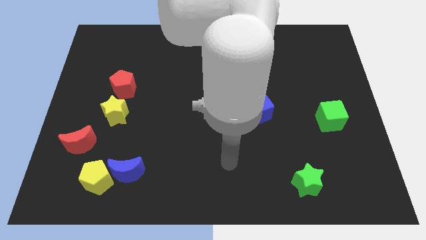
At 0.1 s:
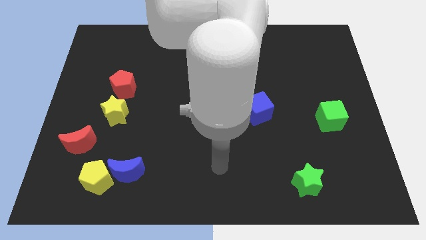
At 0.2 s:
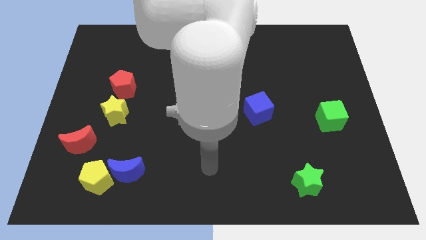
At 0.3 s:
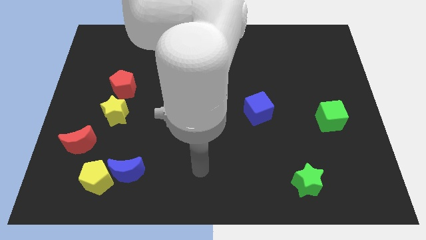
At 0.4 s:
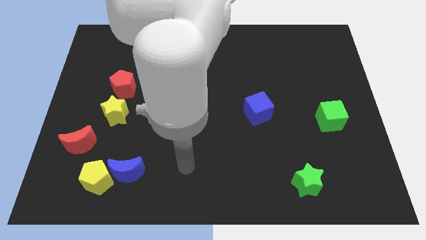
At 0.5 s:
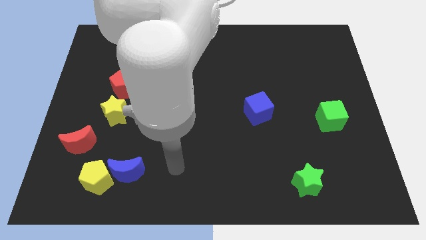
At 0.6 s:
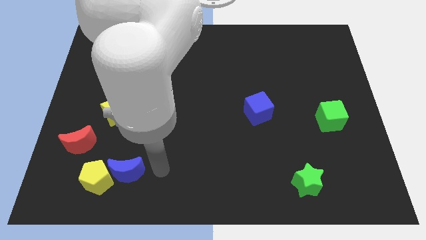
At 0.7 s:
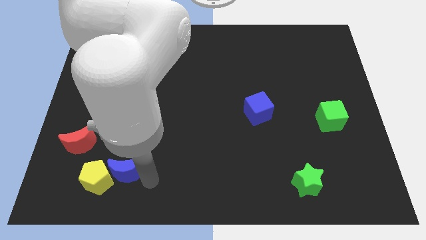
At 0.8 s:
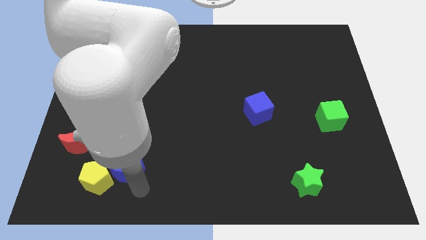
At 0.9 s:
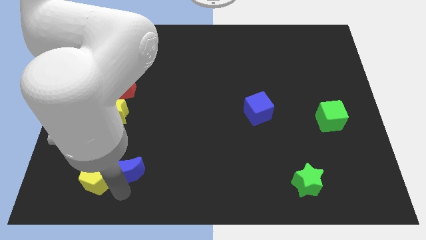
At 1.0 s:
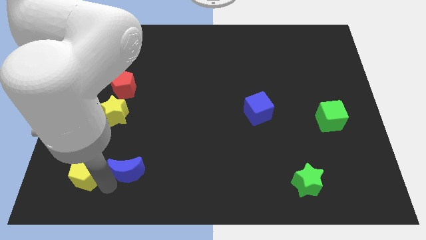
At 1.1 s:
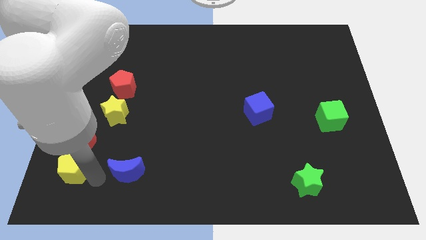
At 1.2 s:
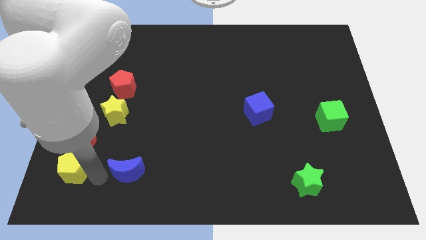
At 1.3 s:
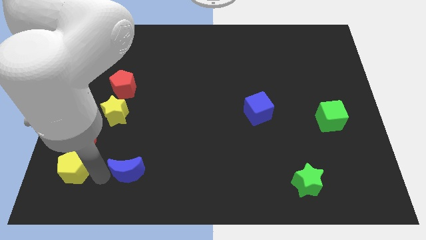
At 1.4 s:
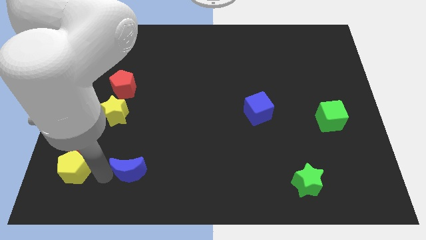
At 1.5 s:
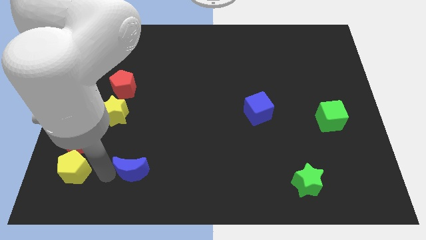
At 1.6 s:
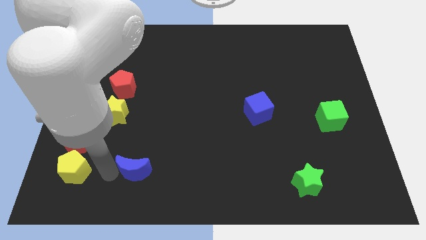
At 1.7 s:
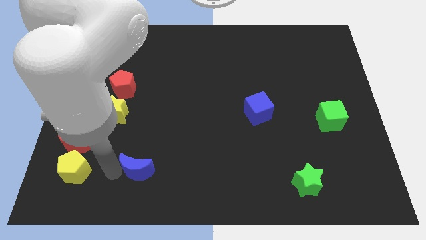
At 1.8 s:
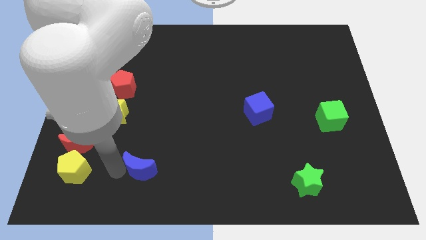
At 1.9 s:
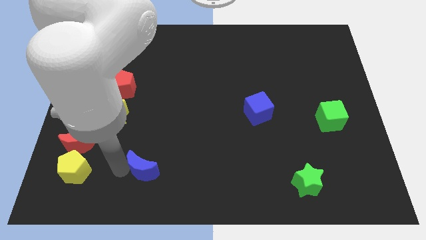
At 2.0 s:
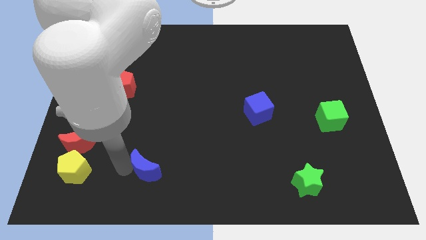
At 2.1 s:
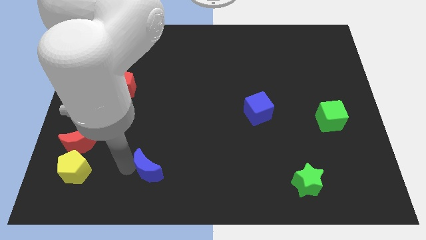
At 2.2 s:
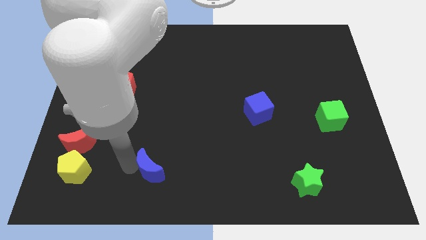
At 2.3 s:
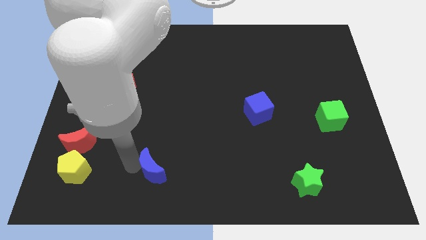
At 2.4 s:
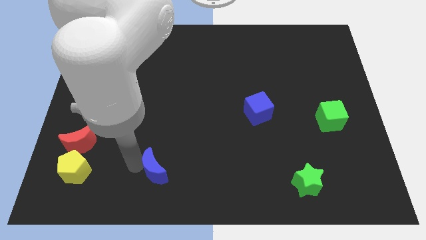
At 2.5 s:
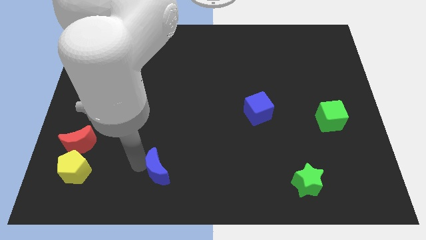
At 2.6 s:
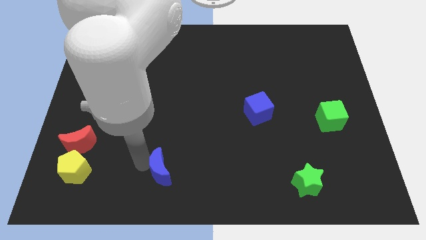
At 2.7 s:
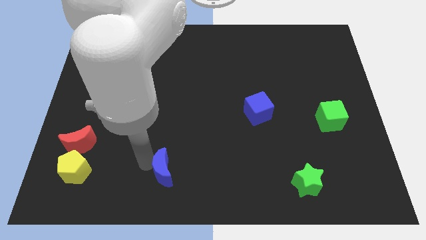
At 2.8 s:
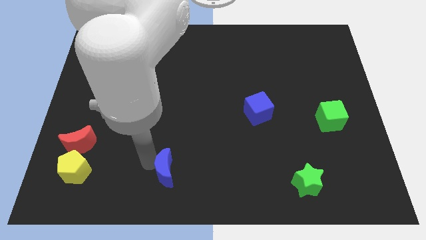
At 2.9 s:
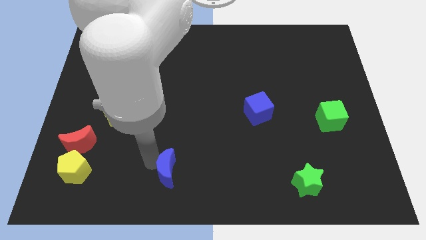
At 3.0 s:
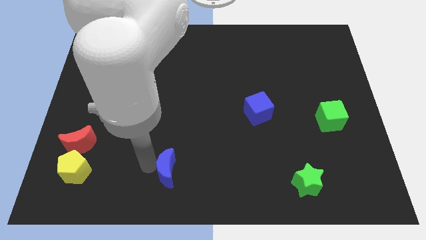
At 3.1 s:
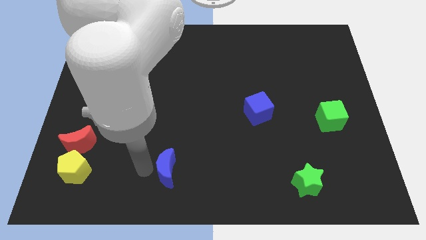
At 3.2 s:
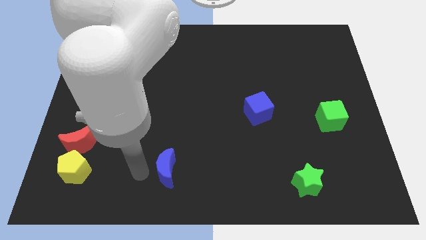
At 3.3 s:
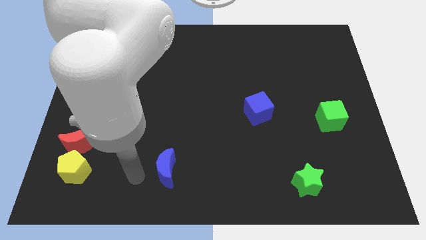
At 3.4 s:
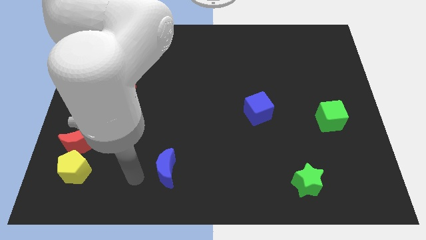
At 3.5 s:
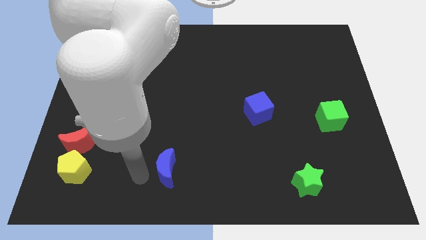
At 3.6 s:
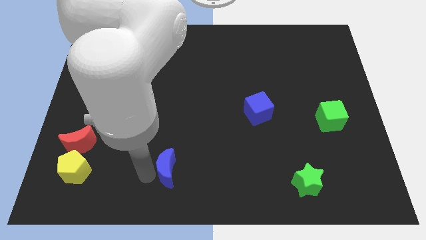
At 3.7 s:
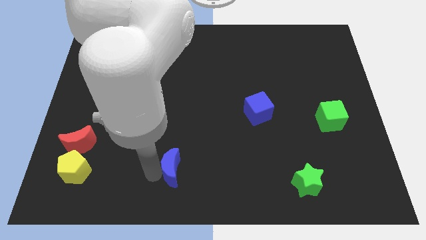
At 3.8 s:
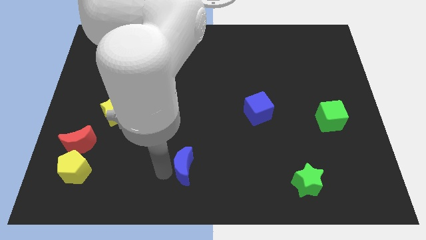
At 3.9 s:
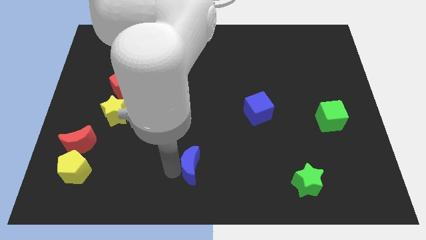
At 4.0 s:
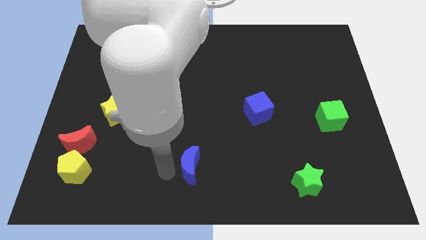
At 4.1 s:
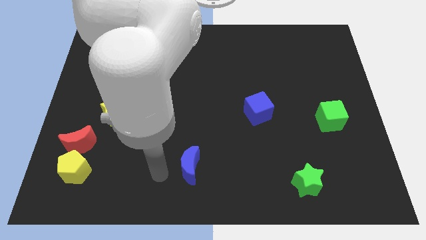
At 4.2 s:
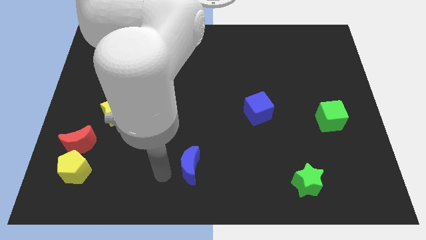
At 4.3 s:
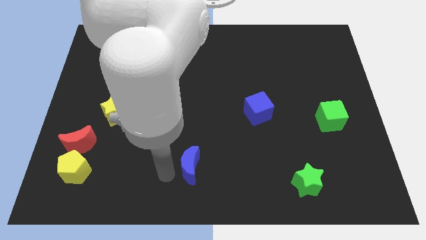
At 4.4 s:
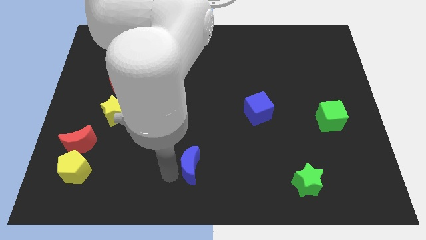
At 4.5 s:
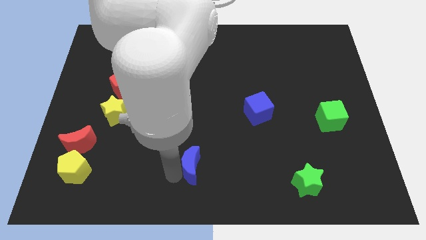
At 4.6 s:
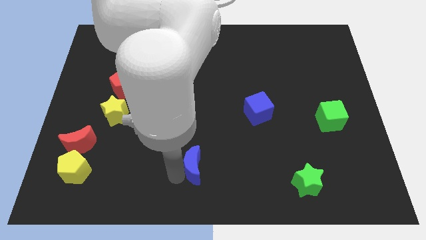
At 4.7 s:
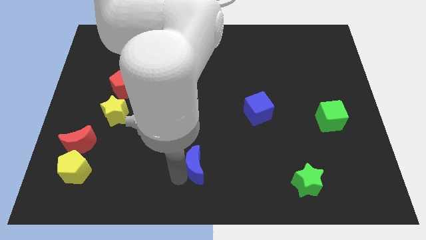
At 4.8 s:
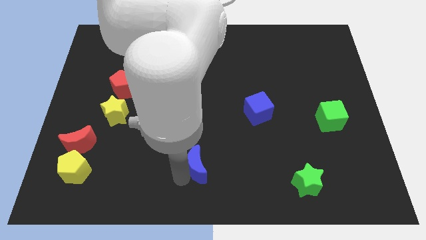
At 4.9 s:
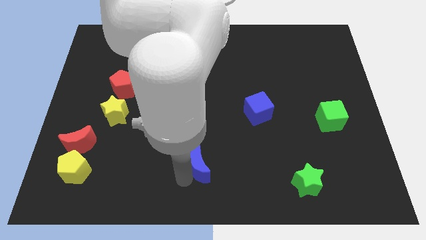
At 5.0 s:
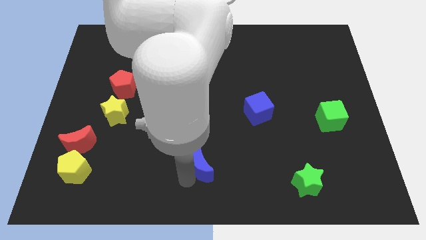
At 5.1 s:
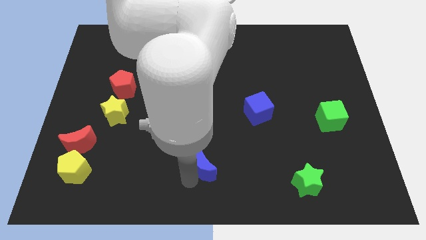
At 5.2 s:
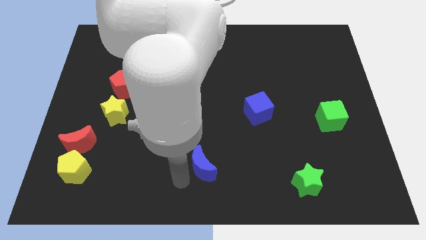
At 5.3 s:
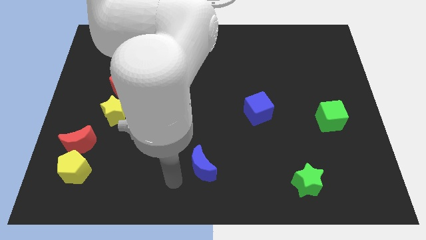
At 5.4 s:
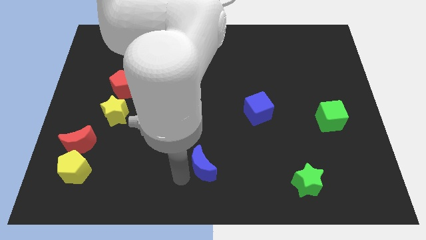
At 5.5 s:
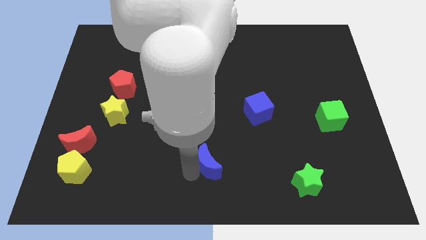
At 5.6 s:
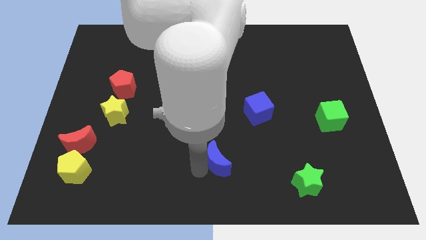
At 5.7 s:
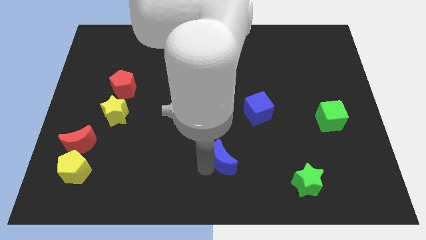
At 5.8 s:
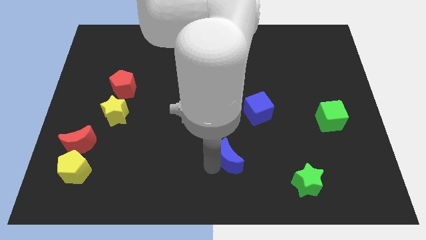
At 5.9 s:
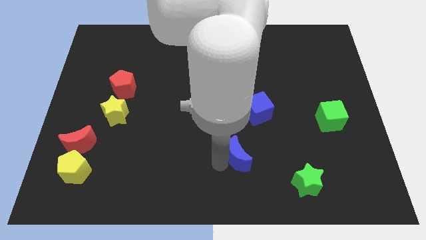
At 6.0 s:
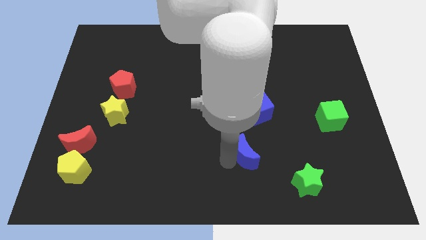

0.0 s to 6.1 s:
put the blue moon below the blue cube

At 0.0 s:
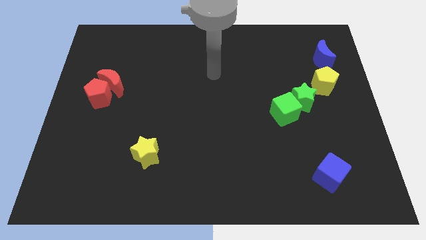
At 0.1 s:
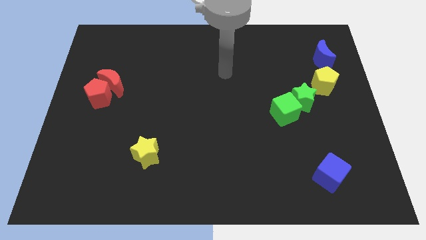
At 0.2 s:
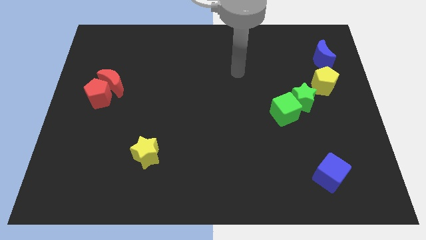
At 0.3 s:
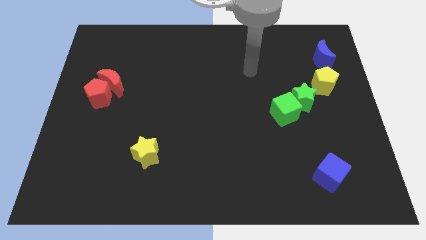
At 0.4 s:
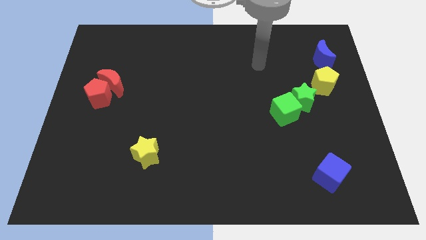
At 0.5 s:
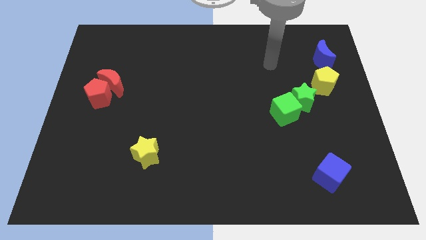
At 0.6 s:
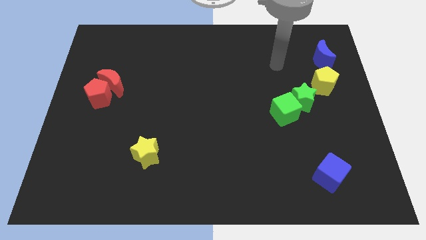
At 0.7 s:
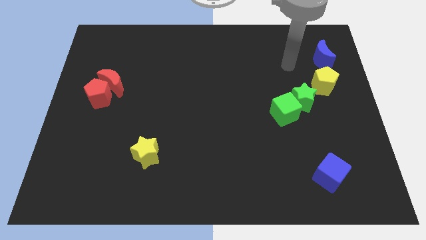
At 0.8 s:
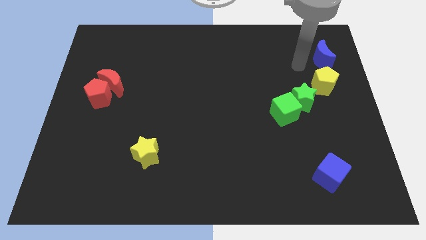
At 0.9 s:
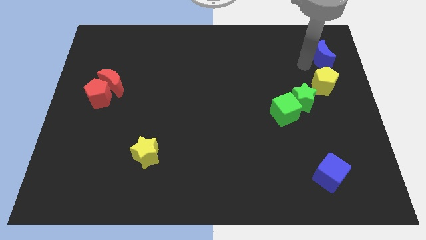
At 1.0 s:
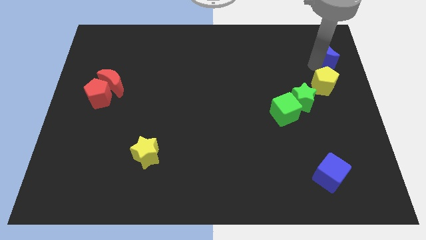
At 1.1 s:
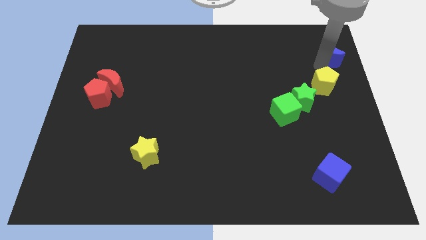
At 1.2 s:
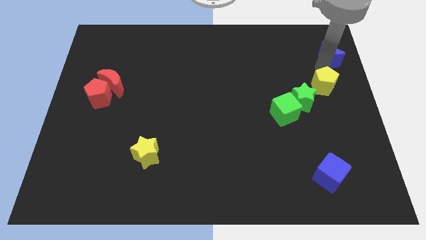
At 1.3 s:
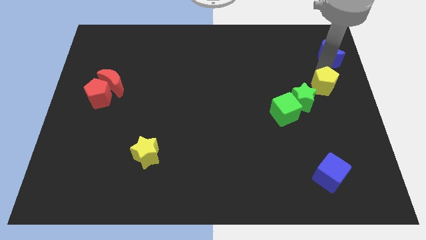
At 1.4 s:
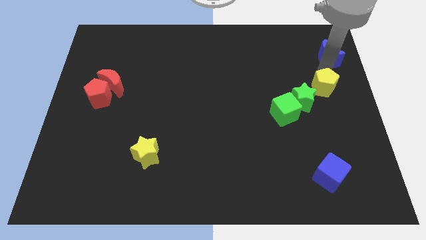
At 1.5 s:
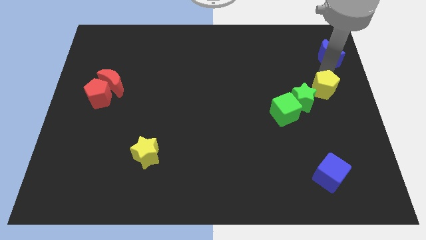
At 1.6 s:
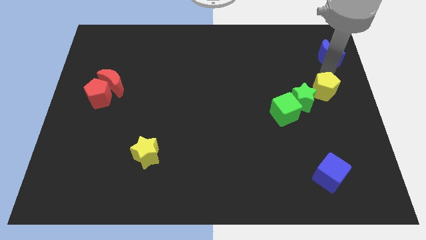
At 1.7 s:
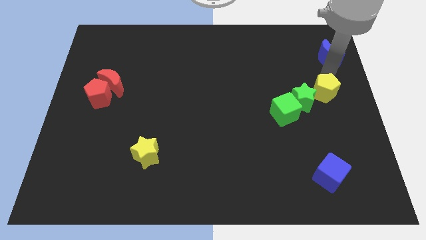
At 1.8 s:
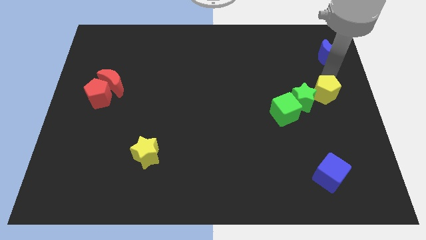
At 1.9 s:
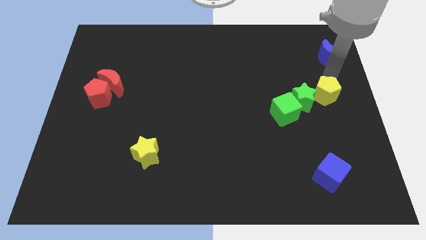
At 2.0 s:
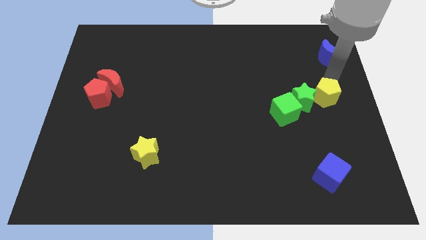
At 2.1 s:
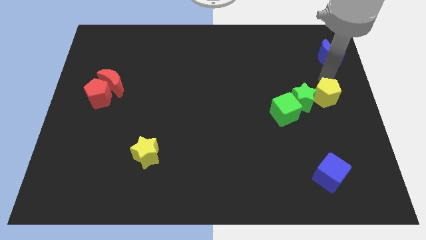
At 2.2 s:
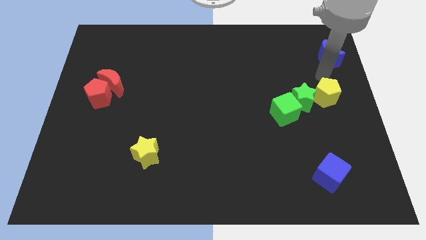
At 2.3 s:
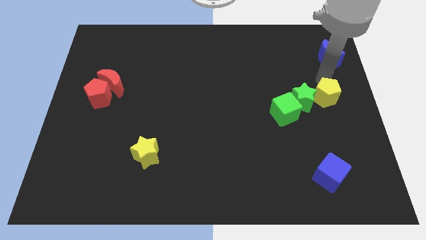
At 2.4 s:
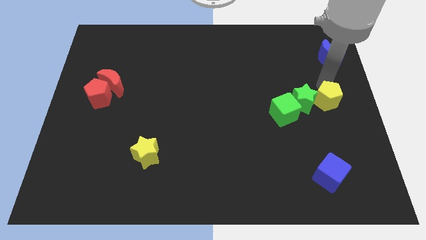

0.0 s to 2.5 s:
slide the yellow pentagon diagonally down and to the right of the green star
